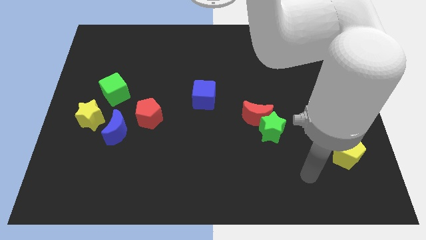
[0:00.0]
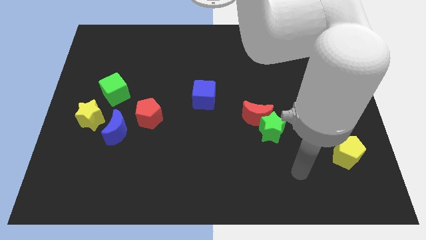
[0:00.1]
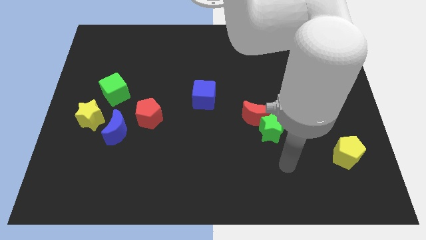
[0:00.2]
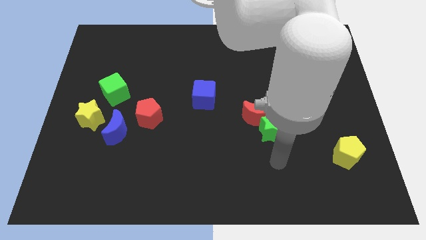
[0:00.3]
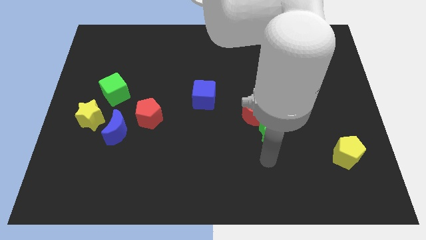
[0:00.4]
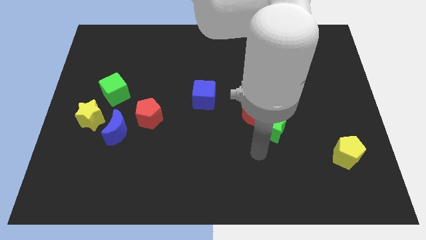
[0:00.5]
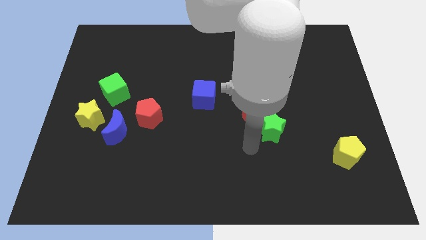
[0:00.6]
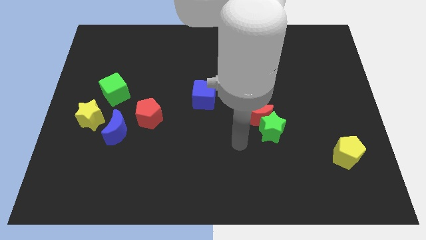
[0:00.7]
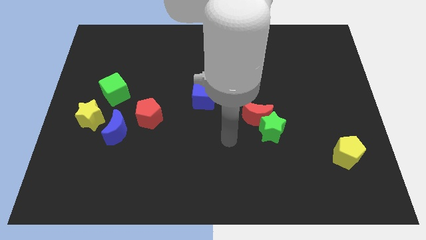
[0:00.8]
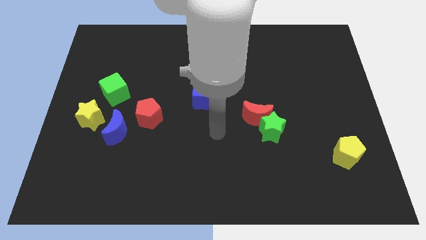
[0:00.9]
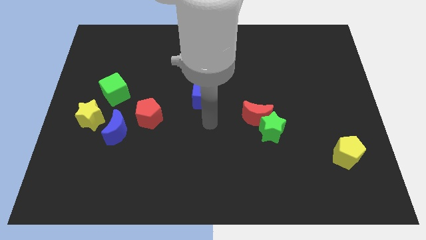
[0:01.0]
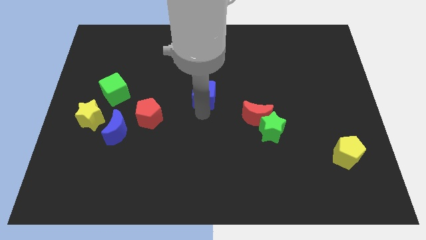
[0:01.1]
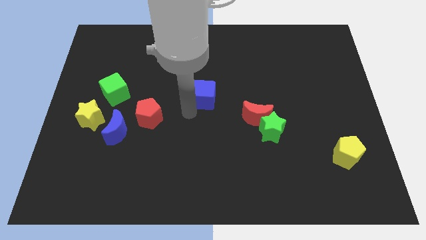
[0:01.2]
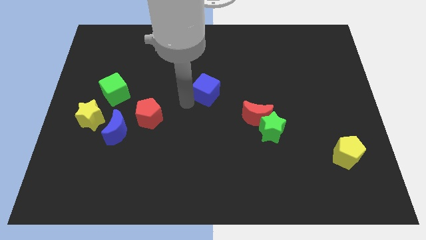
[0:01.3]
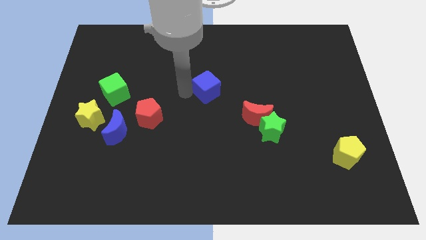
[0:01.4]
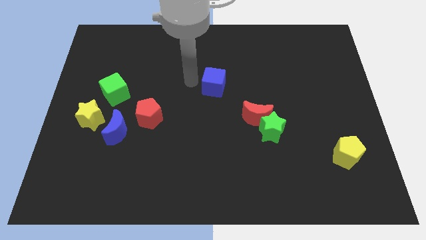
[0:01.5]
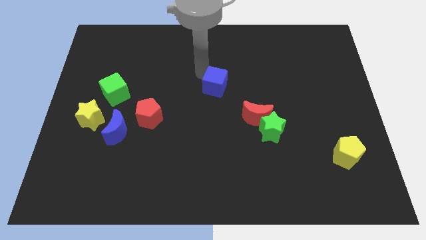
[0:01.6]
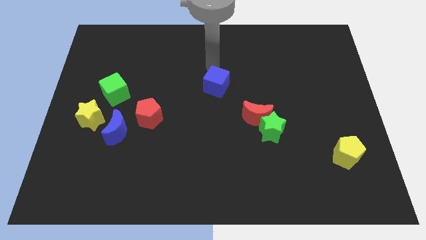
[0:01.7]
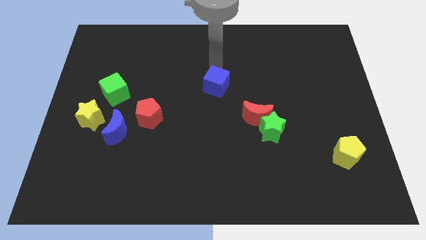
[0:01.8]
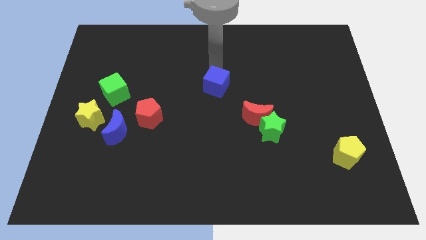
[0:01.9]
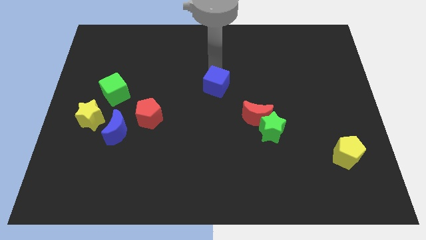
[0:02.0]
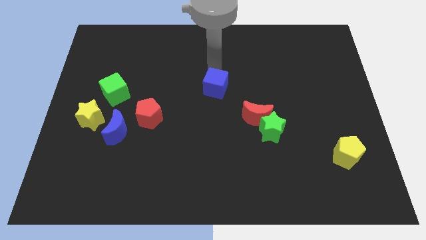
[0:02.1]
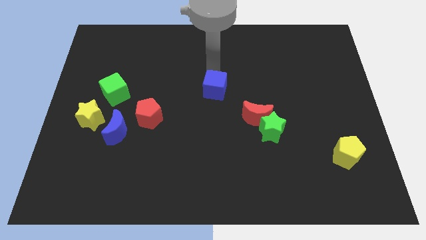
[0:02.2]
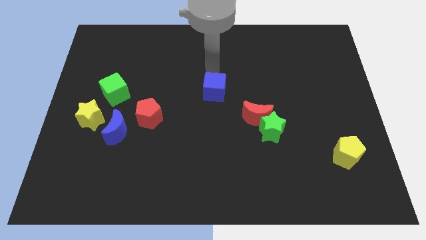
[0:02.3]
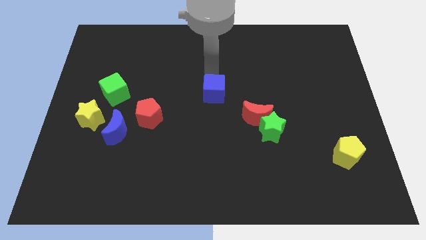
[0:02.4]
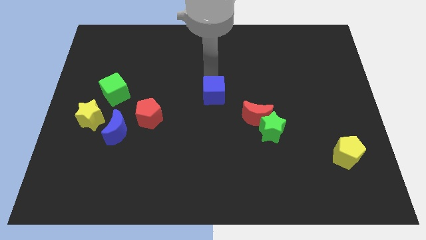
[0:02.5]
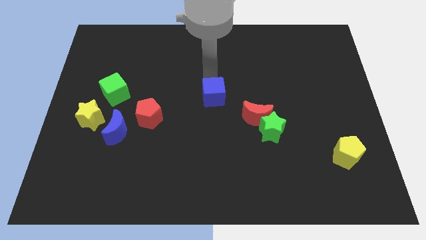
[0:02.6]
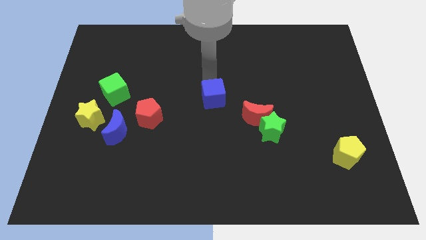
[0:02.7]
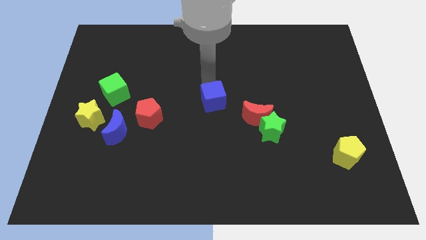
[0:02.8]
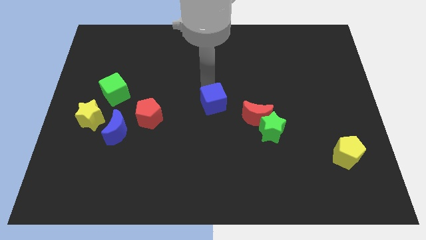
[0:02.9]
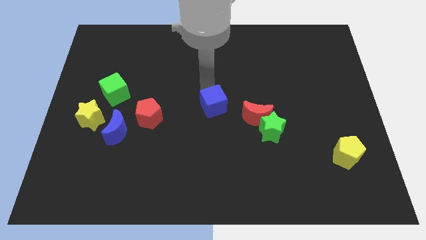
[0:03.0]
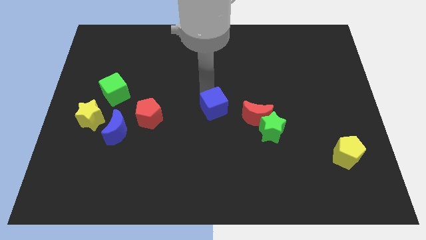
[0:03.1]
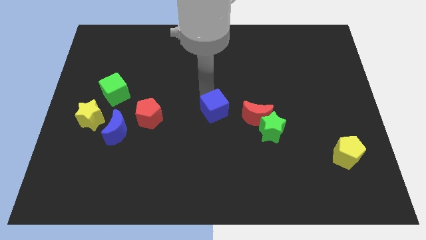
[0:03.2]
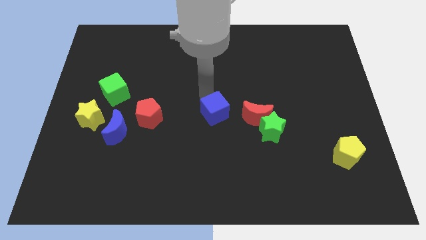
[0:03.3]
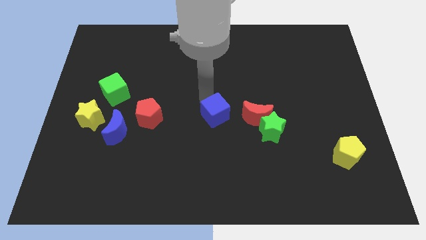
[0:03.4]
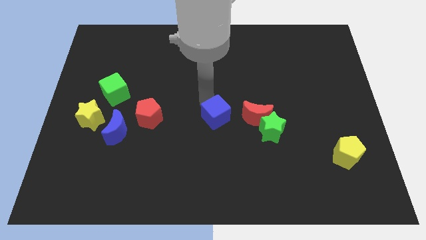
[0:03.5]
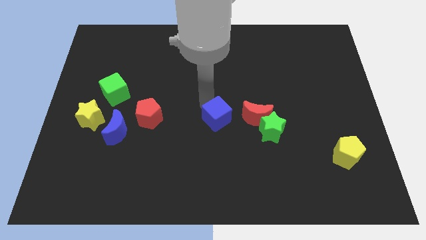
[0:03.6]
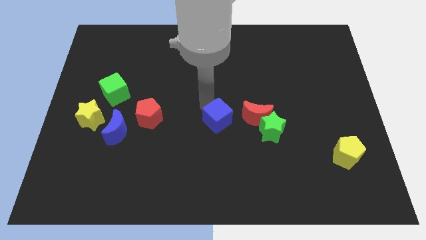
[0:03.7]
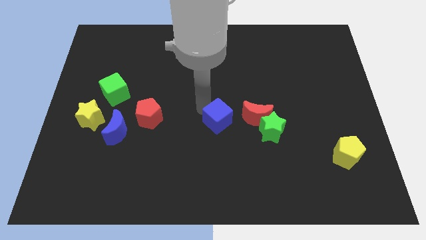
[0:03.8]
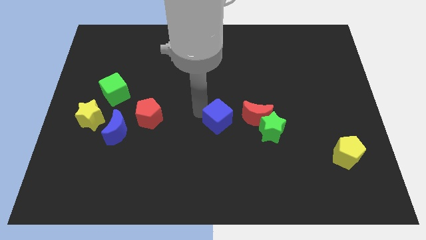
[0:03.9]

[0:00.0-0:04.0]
slightly move the blue cube down and right diagonally

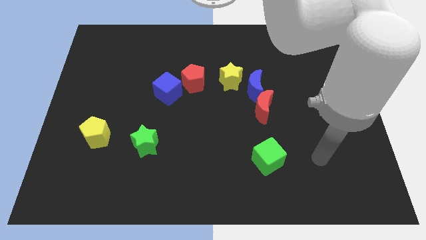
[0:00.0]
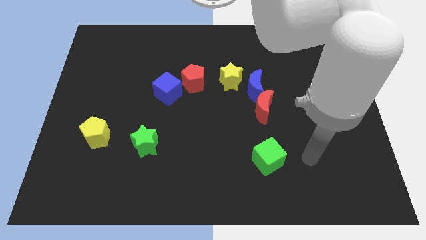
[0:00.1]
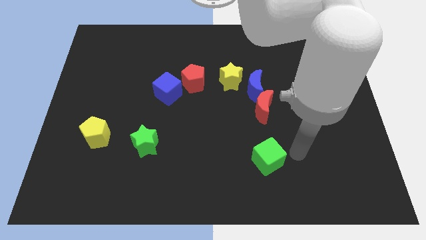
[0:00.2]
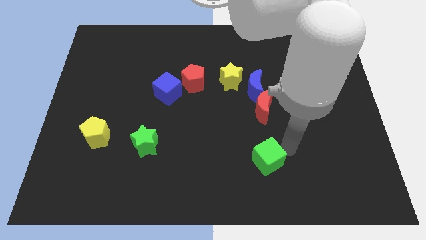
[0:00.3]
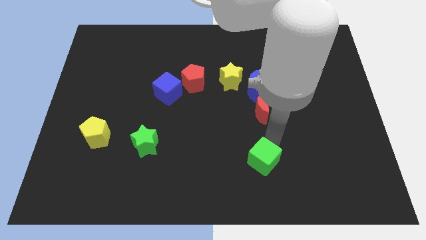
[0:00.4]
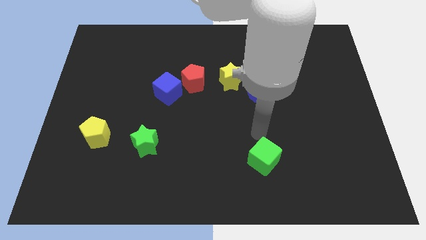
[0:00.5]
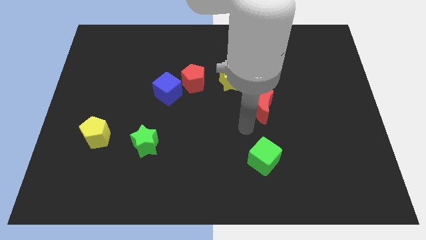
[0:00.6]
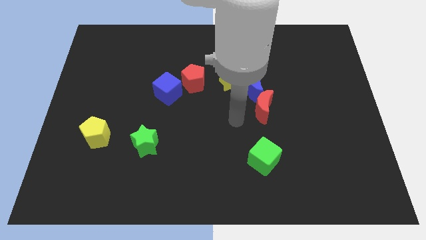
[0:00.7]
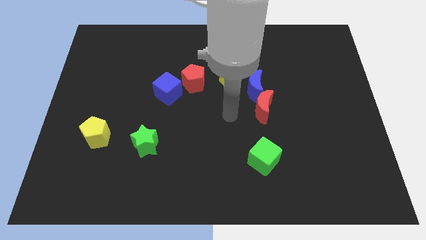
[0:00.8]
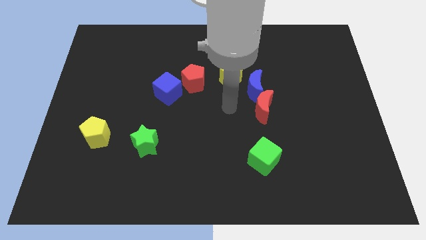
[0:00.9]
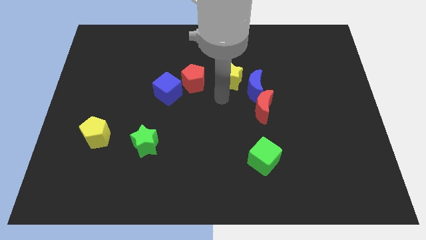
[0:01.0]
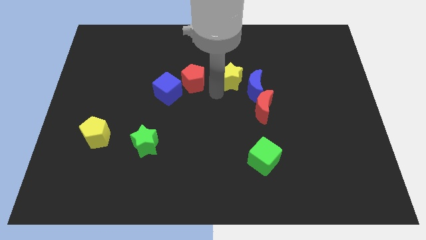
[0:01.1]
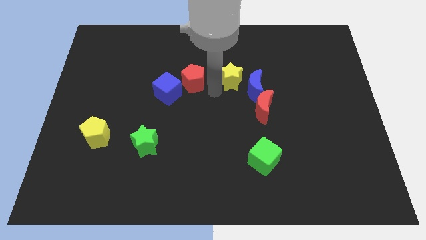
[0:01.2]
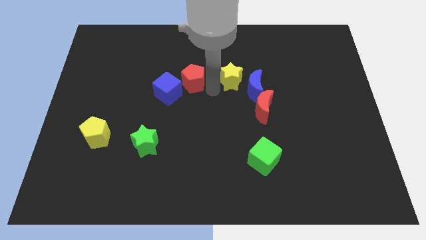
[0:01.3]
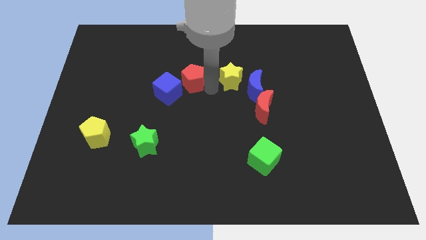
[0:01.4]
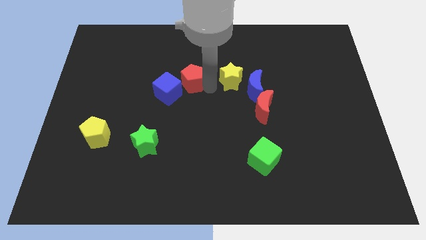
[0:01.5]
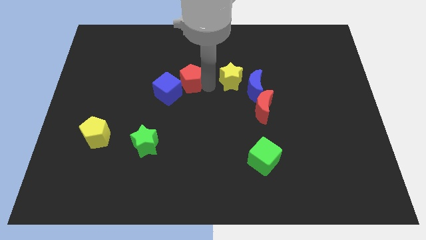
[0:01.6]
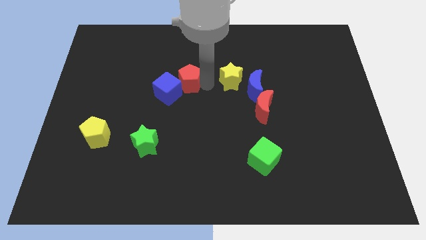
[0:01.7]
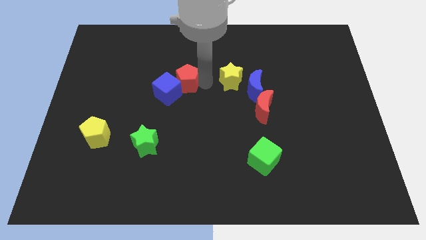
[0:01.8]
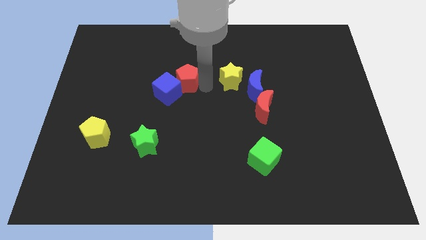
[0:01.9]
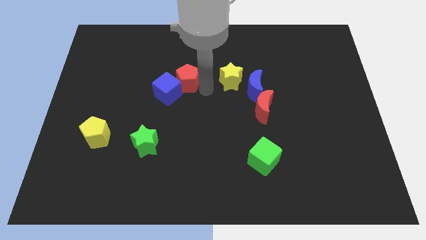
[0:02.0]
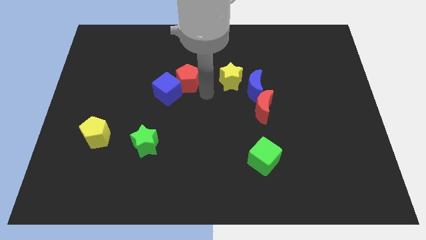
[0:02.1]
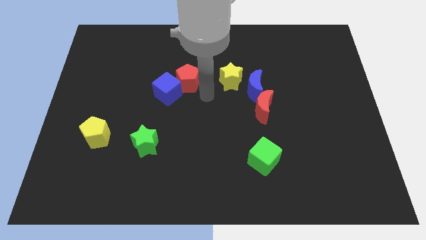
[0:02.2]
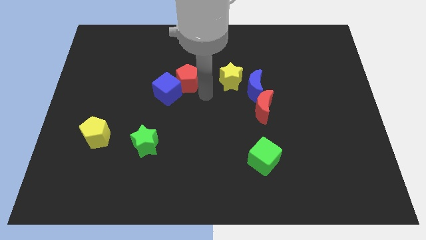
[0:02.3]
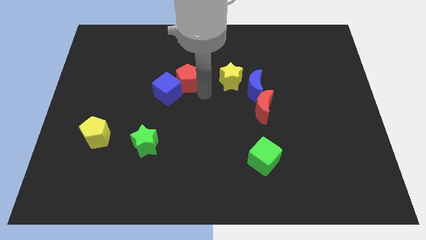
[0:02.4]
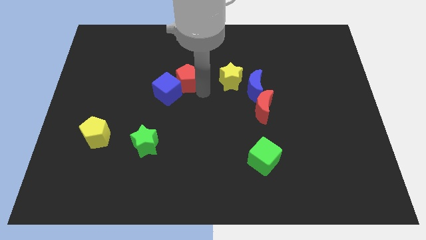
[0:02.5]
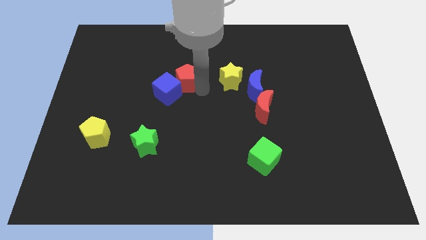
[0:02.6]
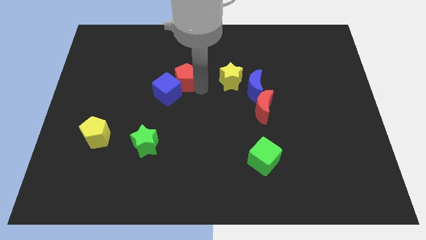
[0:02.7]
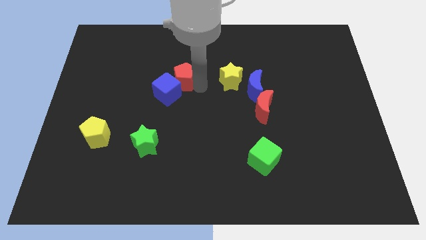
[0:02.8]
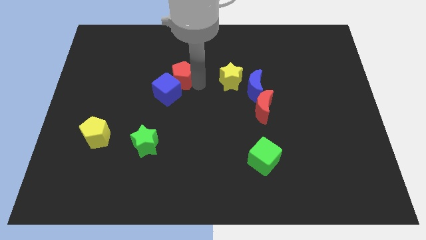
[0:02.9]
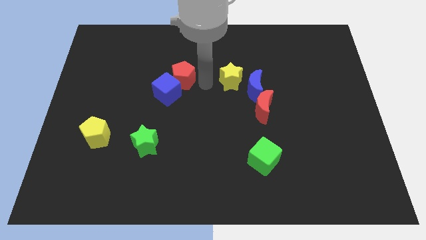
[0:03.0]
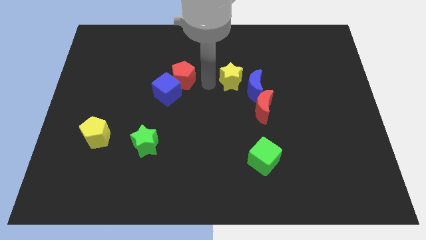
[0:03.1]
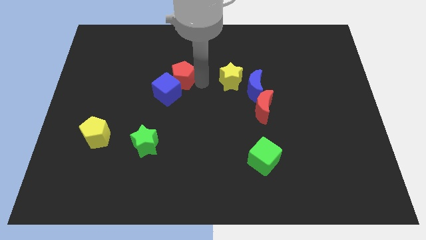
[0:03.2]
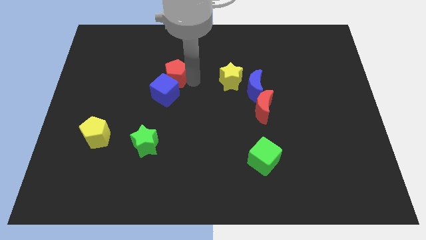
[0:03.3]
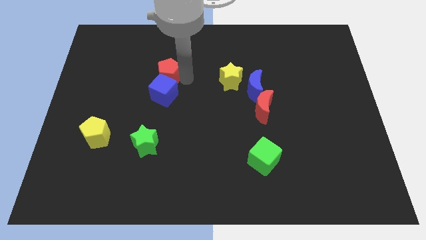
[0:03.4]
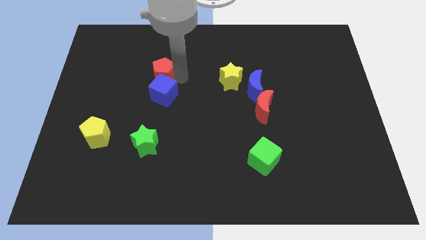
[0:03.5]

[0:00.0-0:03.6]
move the red pentagon to the left a bit

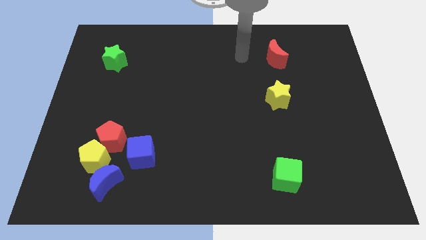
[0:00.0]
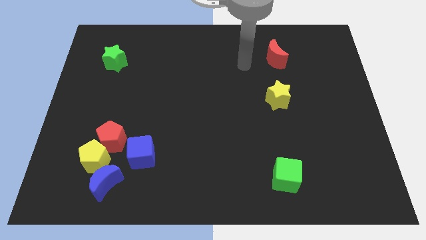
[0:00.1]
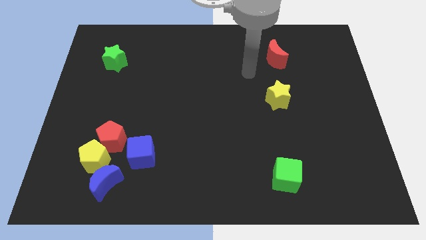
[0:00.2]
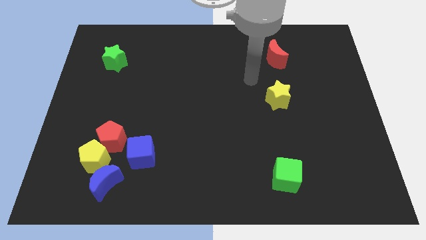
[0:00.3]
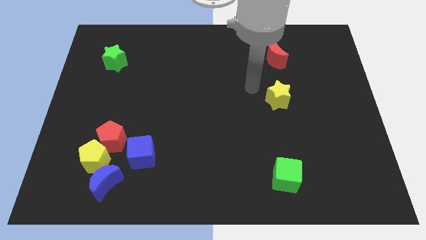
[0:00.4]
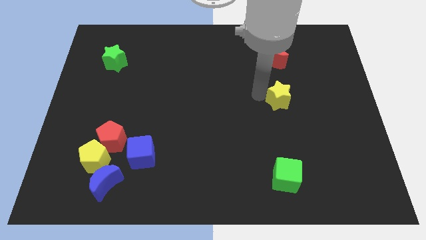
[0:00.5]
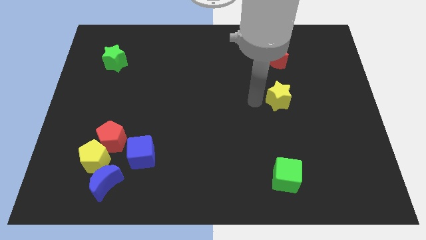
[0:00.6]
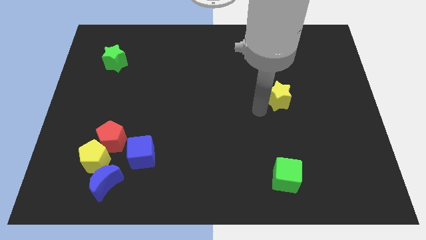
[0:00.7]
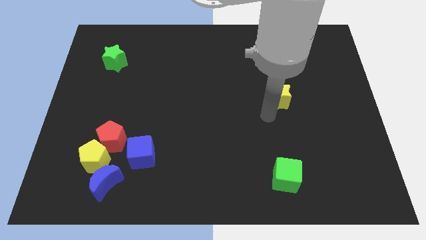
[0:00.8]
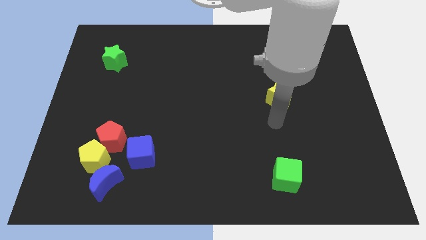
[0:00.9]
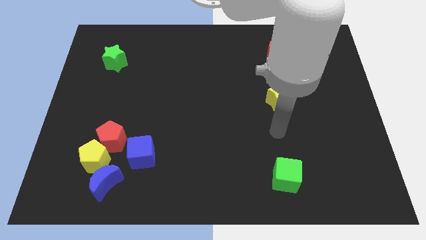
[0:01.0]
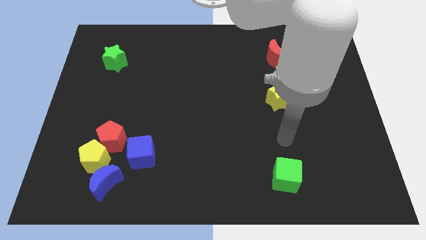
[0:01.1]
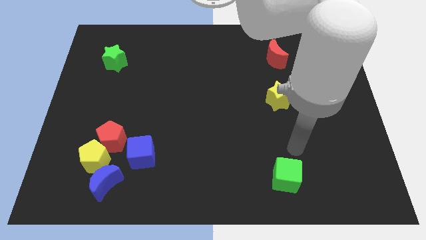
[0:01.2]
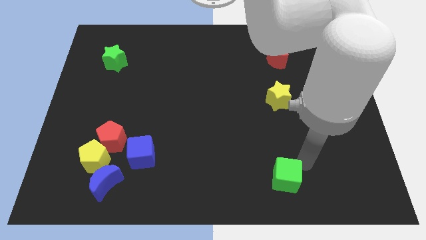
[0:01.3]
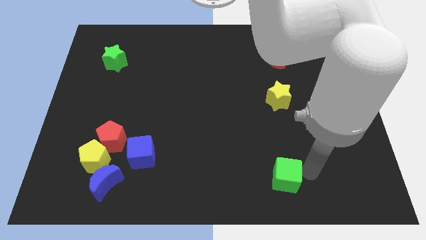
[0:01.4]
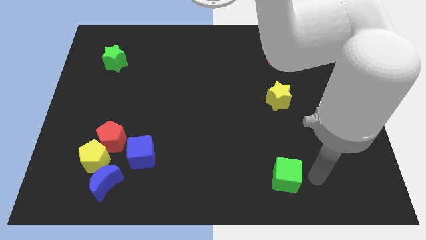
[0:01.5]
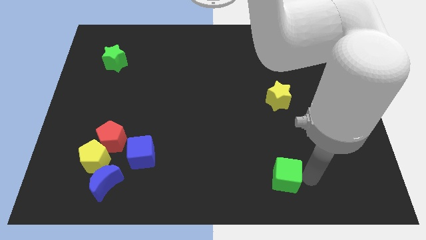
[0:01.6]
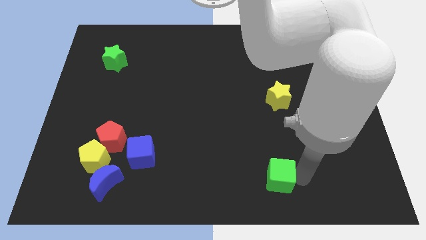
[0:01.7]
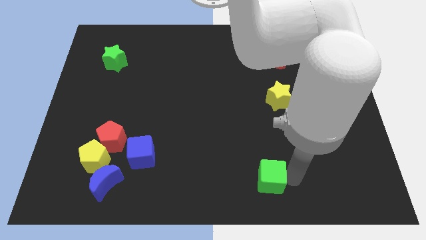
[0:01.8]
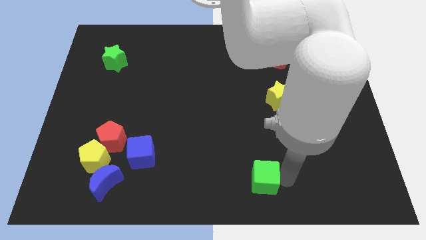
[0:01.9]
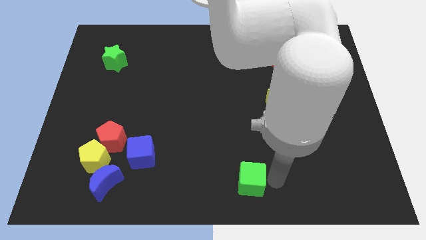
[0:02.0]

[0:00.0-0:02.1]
move the green cube to the left a bit
